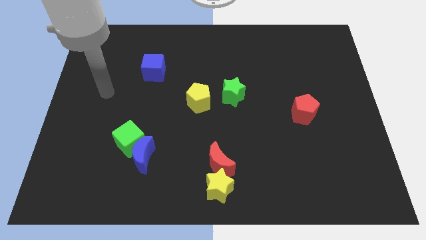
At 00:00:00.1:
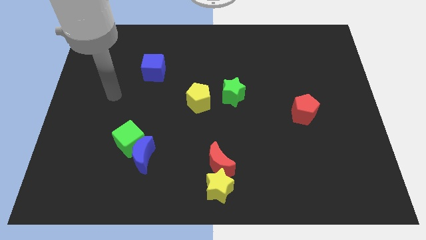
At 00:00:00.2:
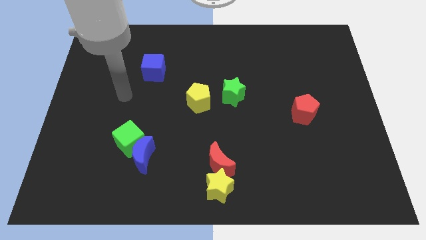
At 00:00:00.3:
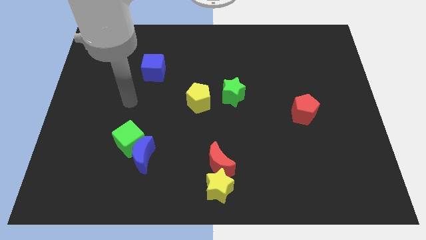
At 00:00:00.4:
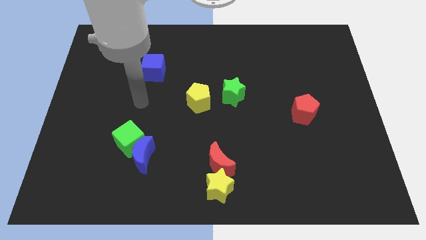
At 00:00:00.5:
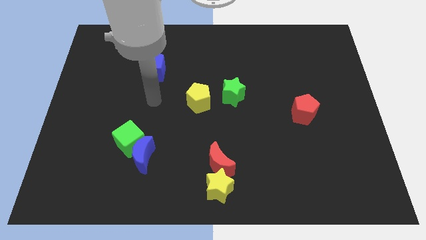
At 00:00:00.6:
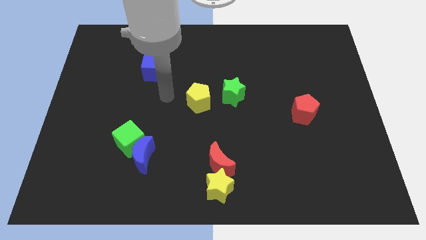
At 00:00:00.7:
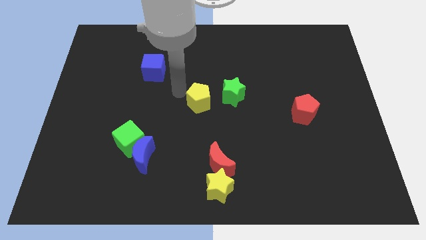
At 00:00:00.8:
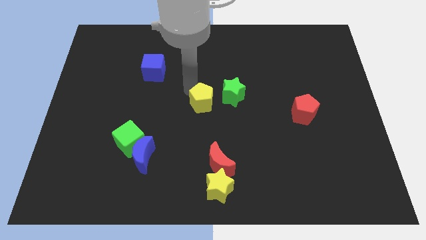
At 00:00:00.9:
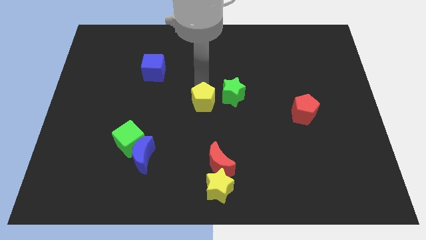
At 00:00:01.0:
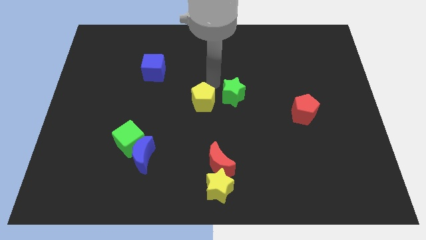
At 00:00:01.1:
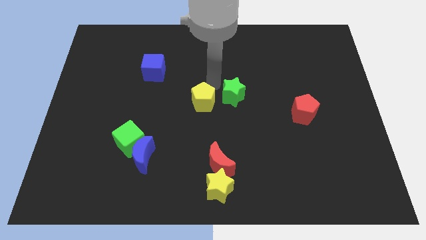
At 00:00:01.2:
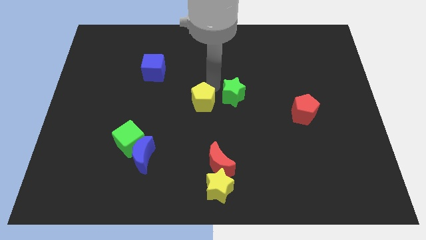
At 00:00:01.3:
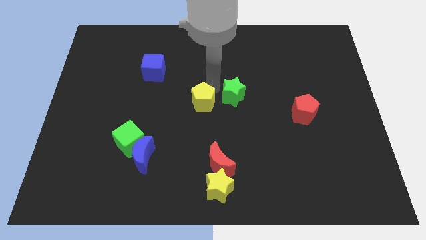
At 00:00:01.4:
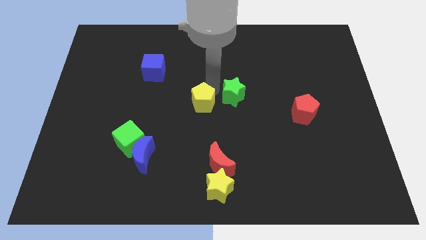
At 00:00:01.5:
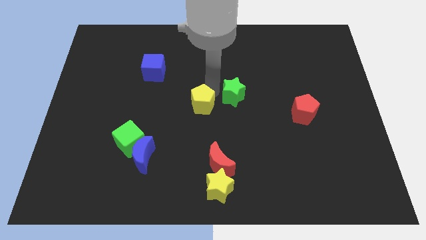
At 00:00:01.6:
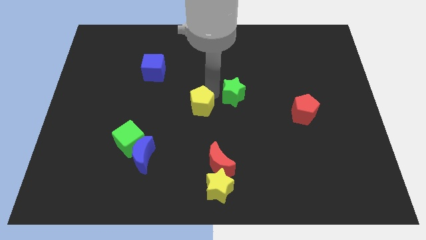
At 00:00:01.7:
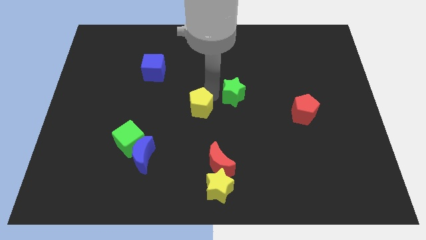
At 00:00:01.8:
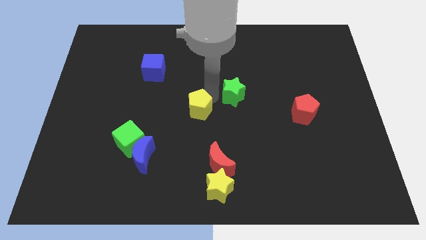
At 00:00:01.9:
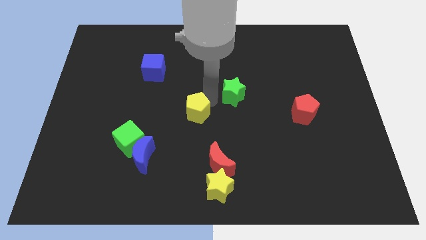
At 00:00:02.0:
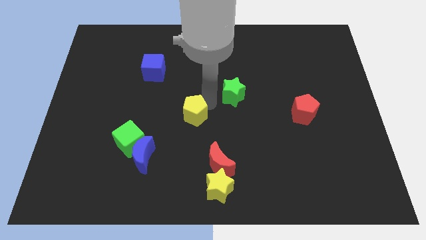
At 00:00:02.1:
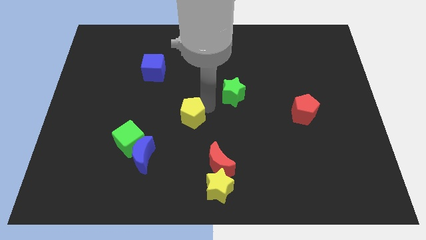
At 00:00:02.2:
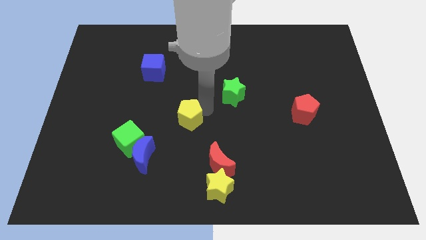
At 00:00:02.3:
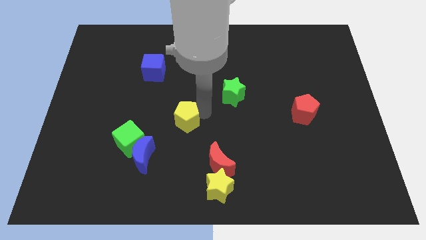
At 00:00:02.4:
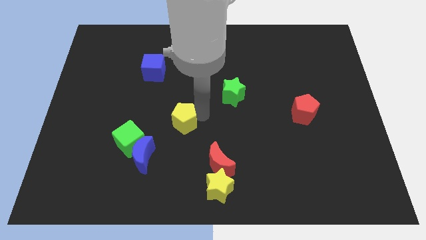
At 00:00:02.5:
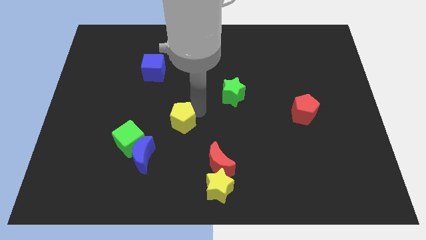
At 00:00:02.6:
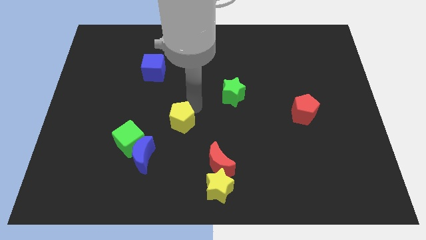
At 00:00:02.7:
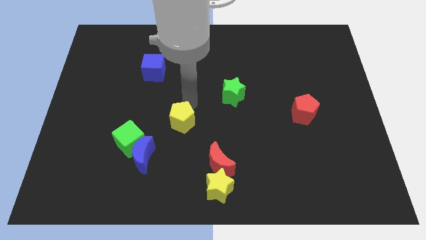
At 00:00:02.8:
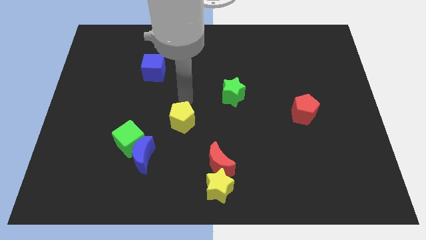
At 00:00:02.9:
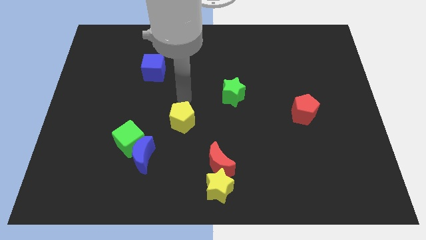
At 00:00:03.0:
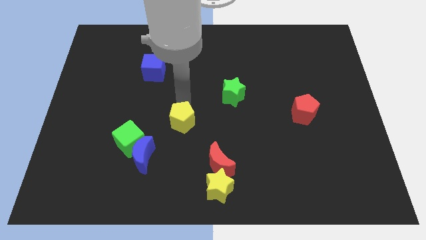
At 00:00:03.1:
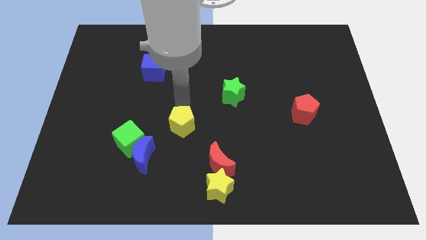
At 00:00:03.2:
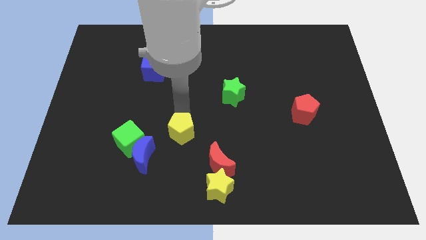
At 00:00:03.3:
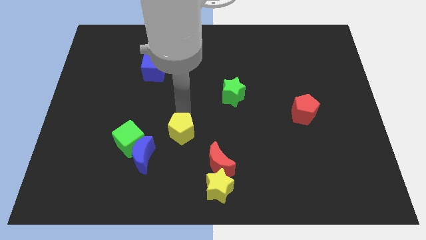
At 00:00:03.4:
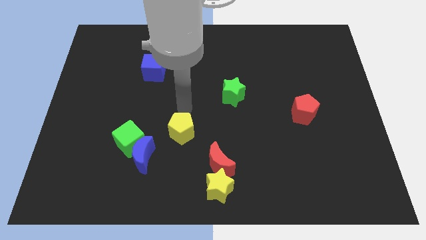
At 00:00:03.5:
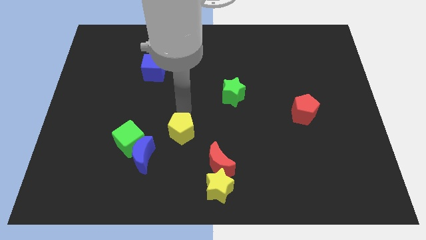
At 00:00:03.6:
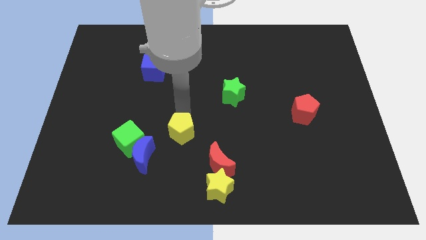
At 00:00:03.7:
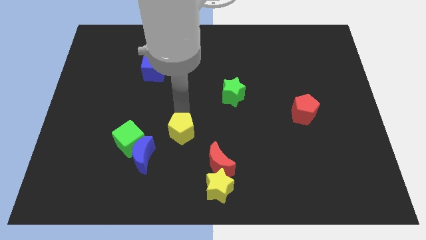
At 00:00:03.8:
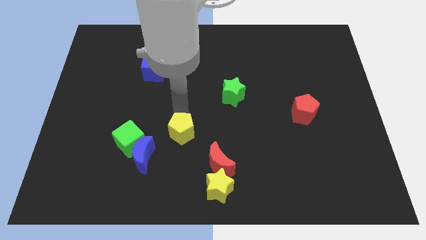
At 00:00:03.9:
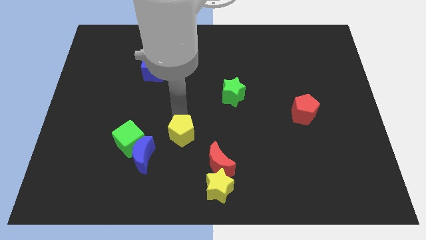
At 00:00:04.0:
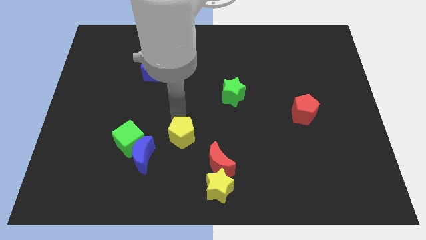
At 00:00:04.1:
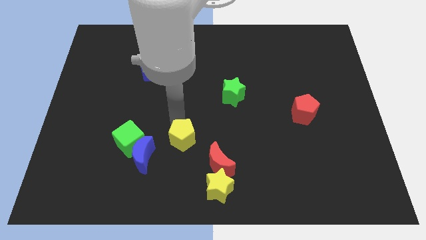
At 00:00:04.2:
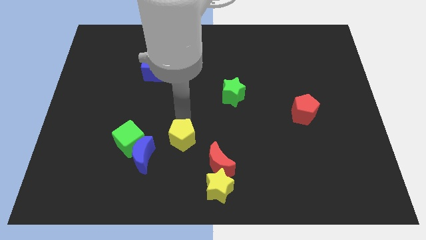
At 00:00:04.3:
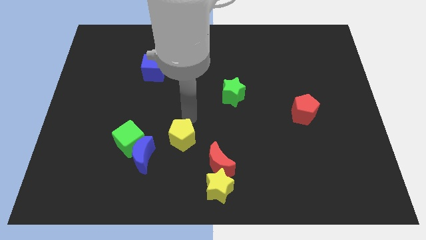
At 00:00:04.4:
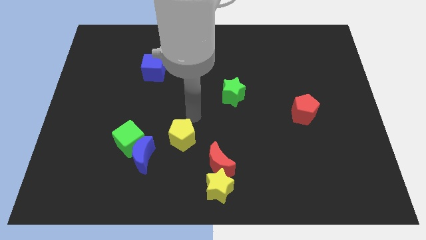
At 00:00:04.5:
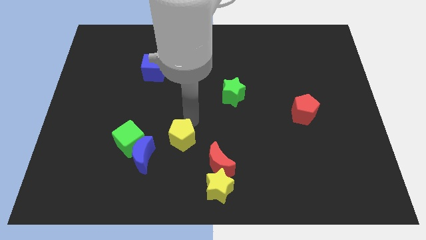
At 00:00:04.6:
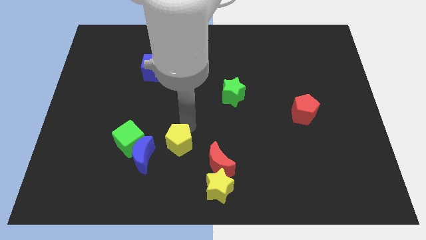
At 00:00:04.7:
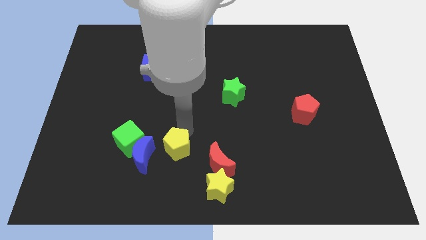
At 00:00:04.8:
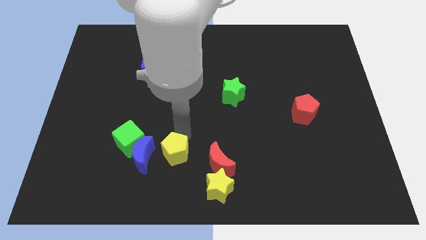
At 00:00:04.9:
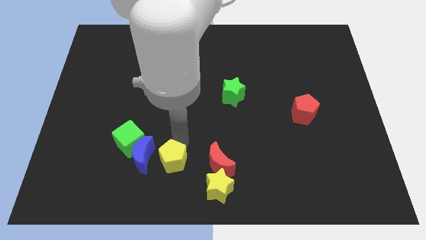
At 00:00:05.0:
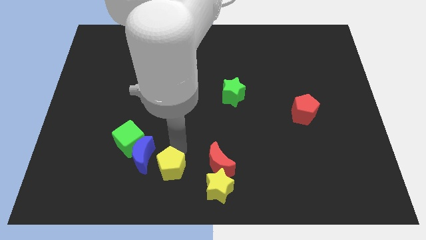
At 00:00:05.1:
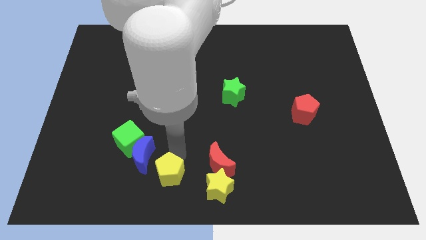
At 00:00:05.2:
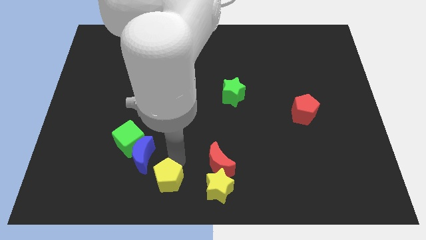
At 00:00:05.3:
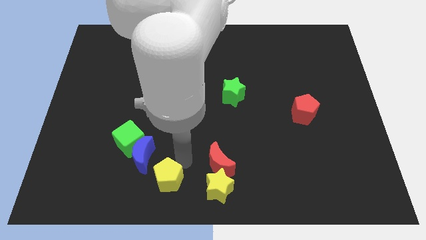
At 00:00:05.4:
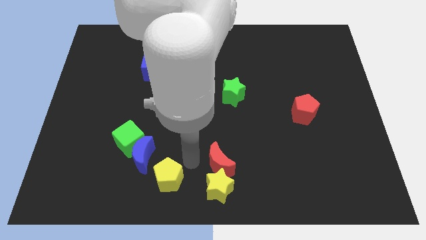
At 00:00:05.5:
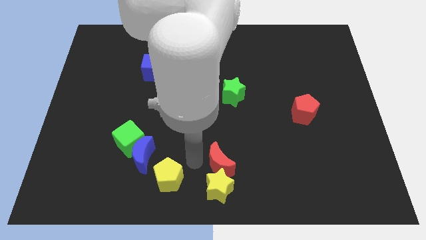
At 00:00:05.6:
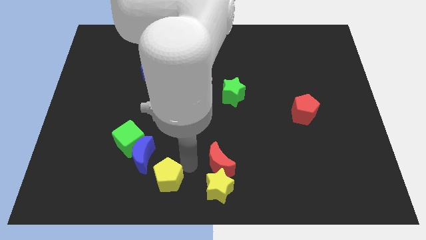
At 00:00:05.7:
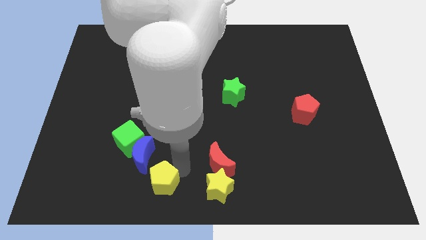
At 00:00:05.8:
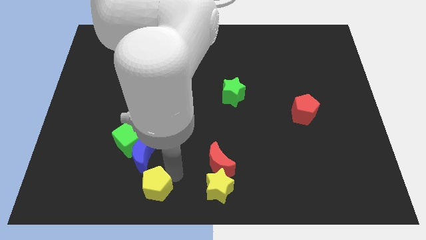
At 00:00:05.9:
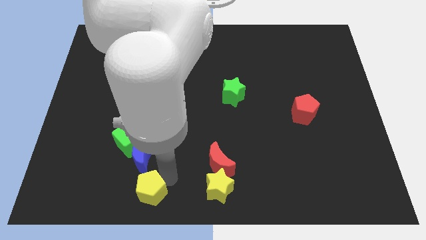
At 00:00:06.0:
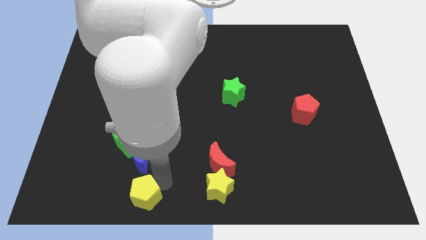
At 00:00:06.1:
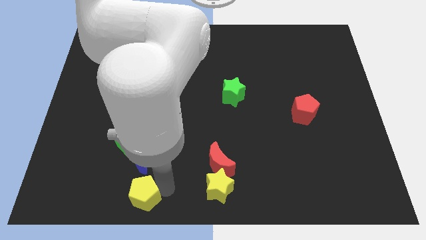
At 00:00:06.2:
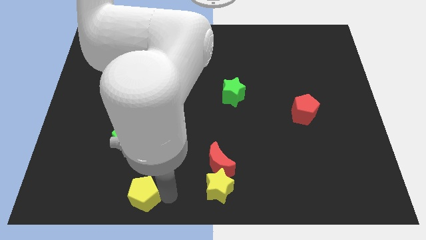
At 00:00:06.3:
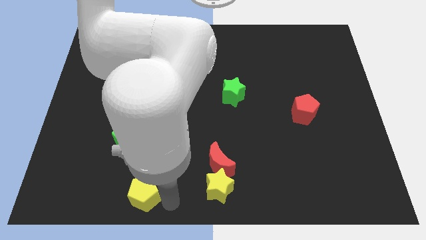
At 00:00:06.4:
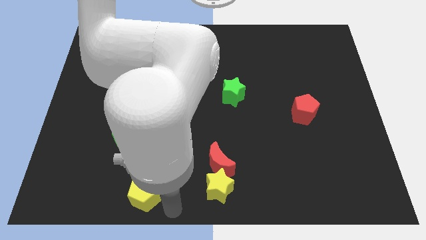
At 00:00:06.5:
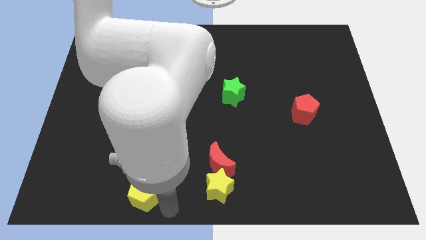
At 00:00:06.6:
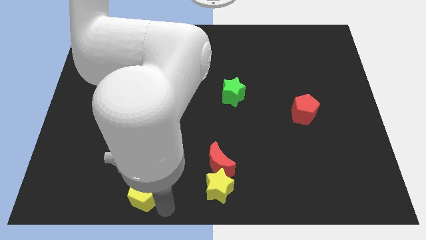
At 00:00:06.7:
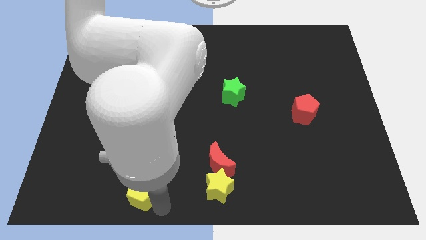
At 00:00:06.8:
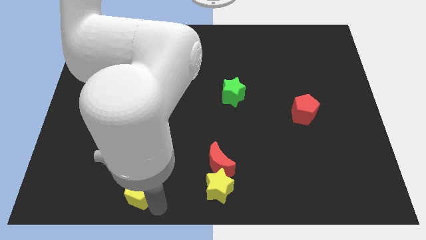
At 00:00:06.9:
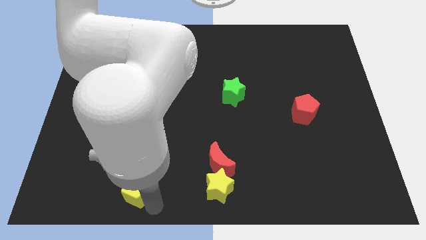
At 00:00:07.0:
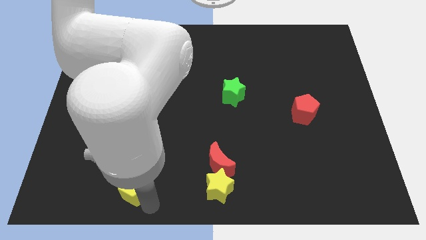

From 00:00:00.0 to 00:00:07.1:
put the yellow pentagon to the bottom left of the blue moon
